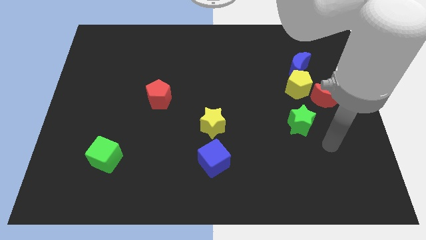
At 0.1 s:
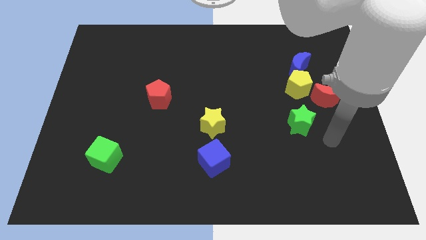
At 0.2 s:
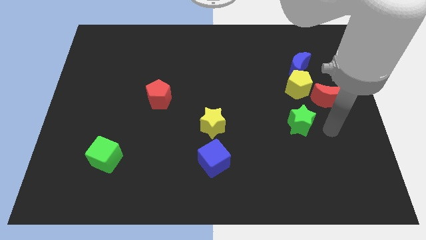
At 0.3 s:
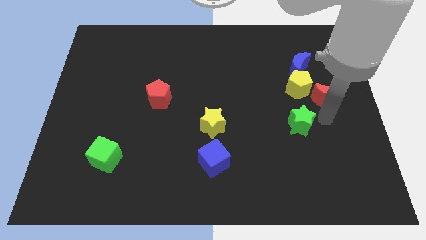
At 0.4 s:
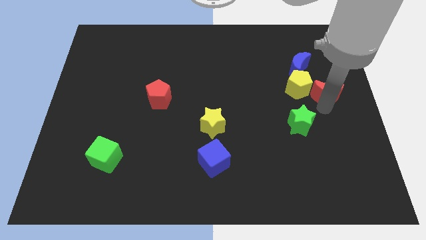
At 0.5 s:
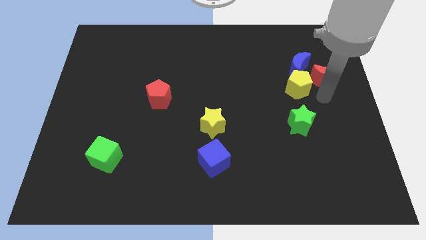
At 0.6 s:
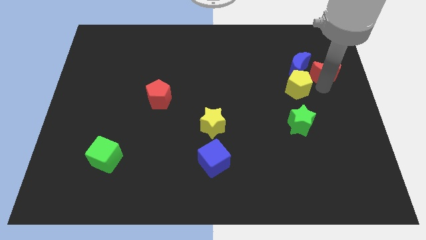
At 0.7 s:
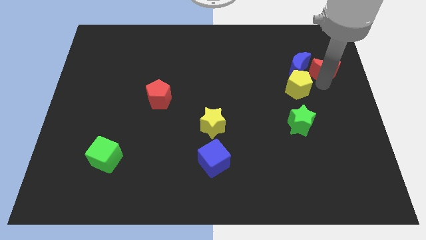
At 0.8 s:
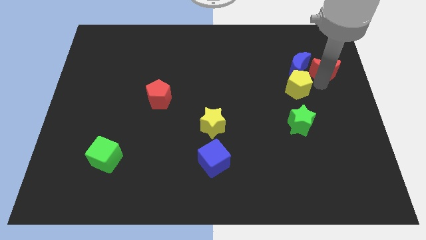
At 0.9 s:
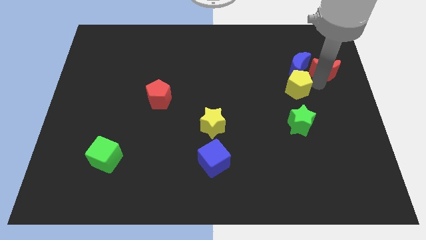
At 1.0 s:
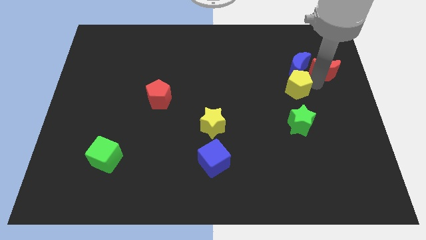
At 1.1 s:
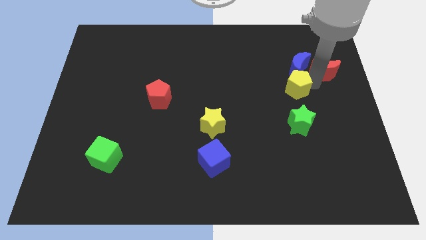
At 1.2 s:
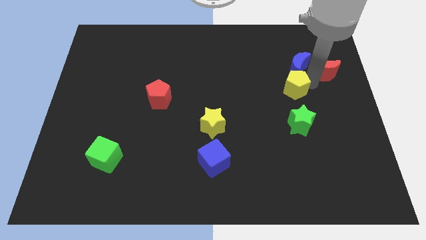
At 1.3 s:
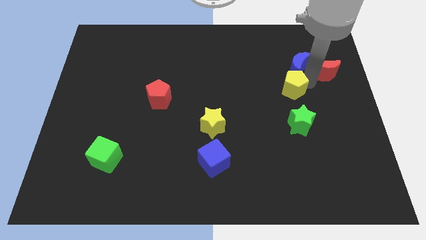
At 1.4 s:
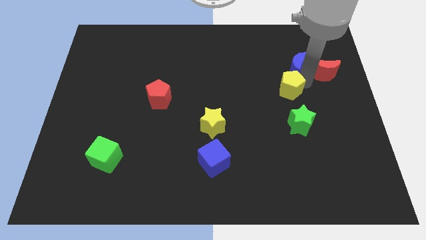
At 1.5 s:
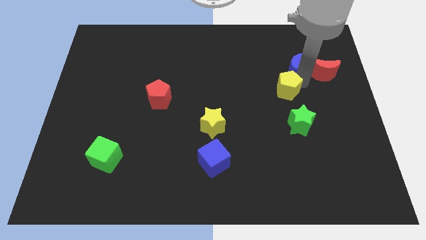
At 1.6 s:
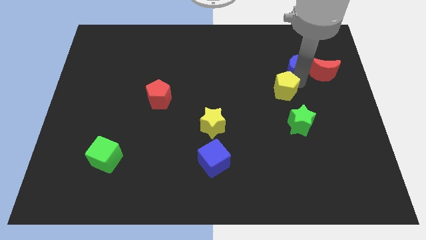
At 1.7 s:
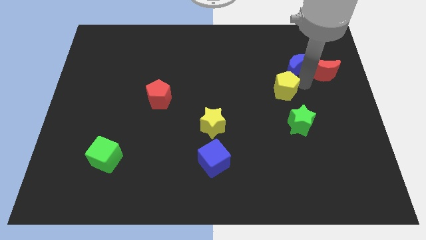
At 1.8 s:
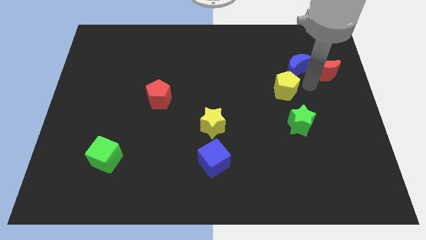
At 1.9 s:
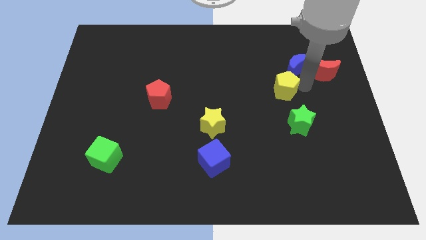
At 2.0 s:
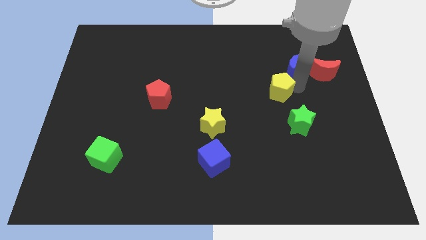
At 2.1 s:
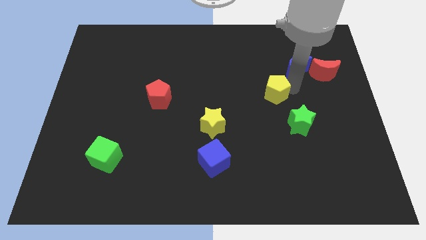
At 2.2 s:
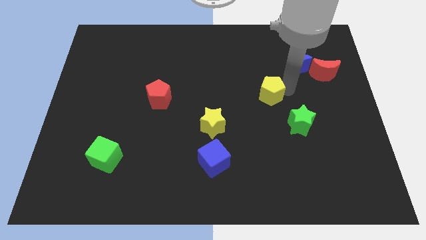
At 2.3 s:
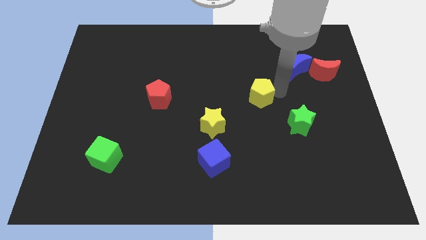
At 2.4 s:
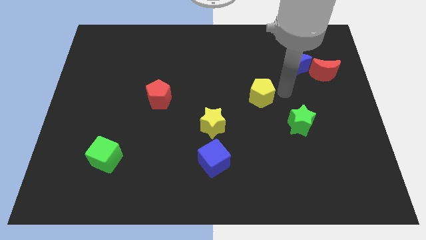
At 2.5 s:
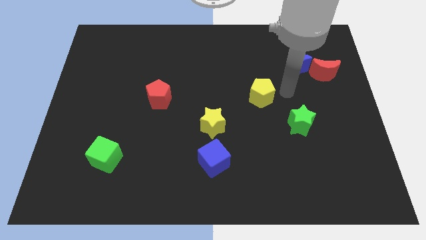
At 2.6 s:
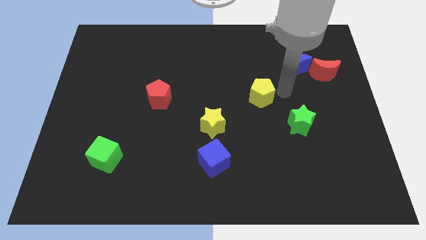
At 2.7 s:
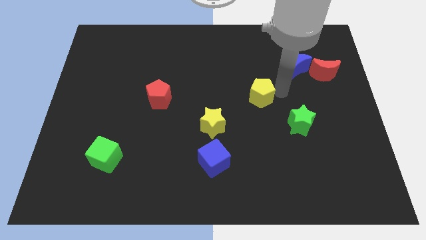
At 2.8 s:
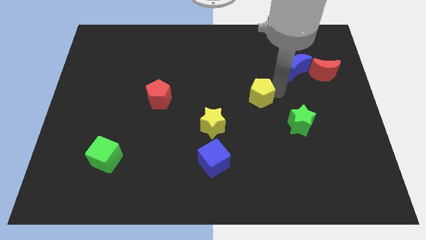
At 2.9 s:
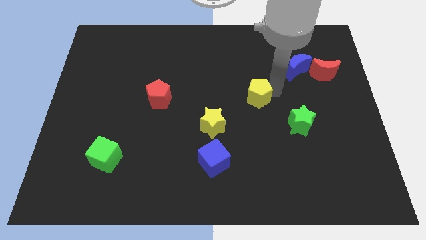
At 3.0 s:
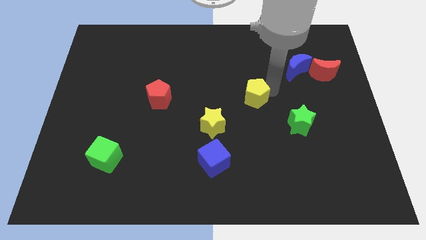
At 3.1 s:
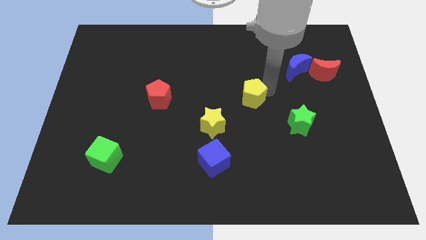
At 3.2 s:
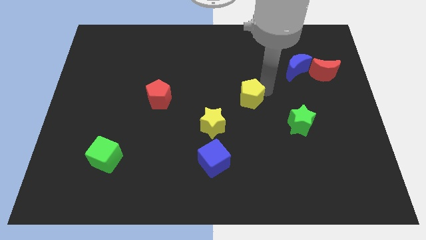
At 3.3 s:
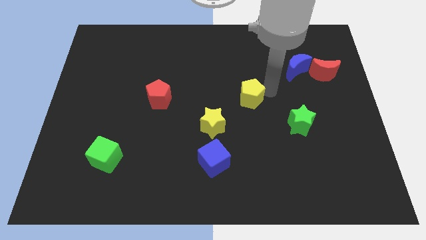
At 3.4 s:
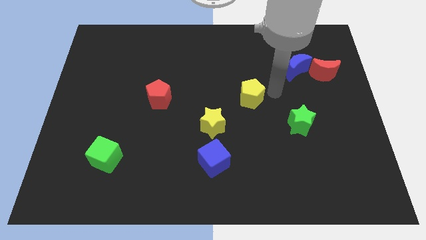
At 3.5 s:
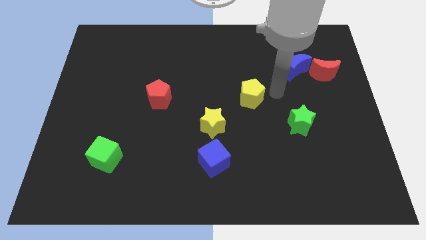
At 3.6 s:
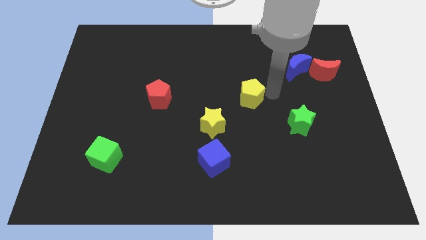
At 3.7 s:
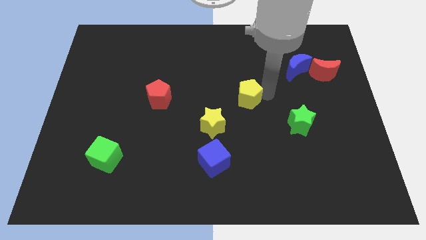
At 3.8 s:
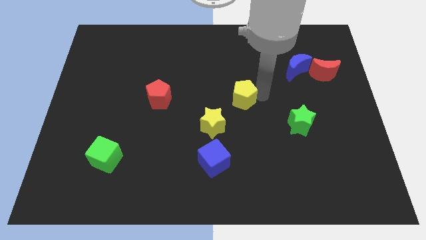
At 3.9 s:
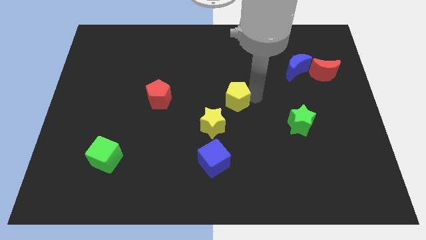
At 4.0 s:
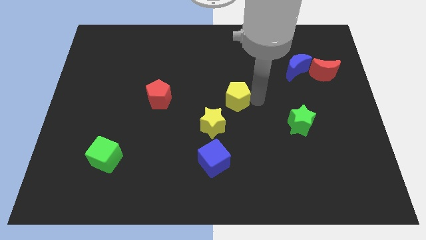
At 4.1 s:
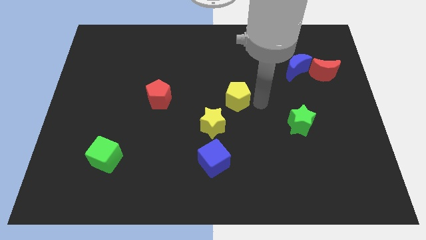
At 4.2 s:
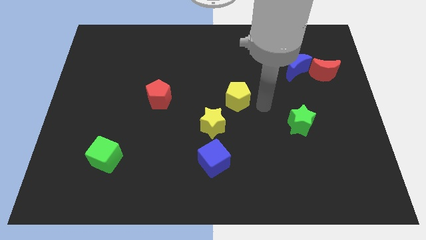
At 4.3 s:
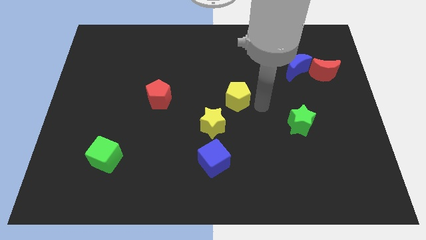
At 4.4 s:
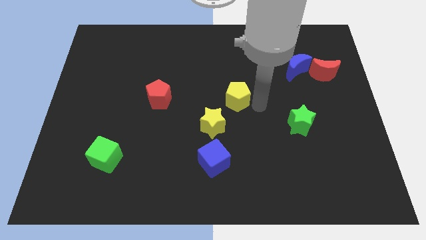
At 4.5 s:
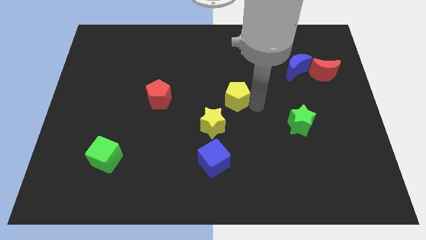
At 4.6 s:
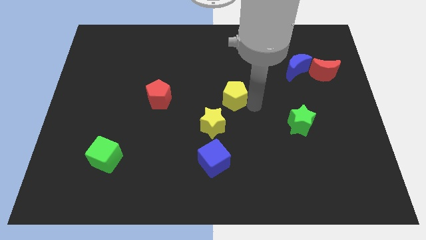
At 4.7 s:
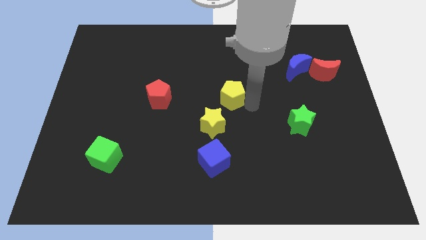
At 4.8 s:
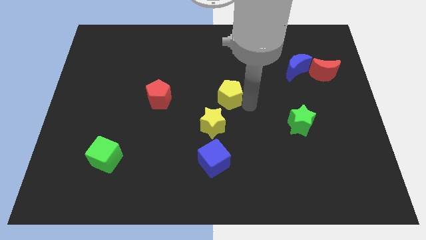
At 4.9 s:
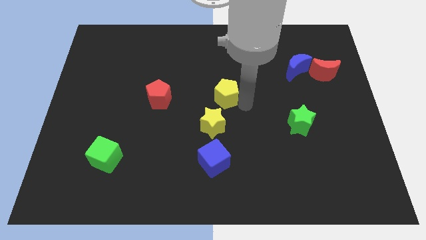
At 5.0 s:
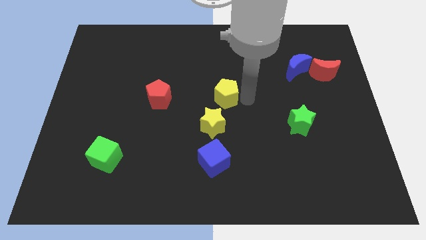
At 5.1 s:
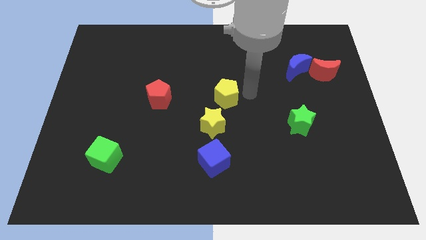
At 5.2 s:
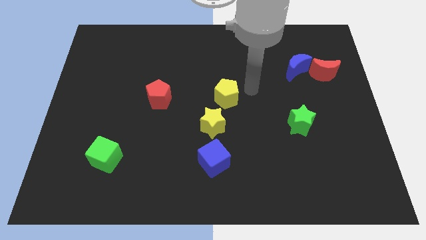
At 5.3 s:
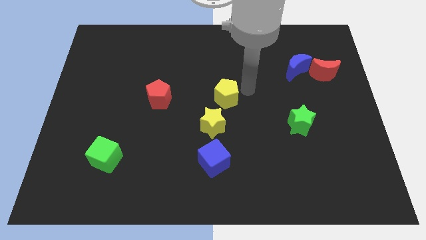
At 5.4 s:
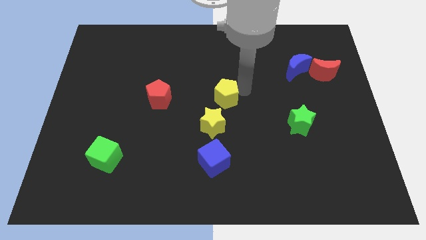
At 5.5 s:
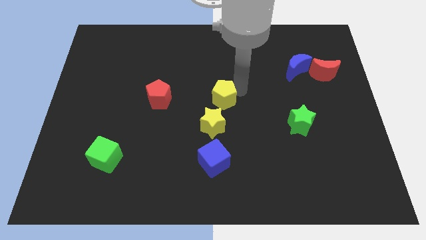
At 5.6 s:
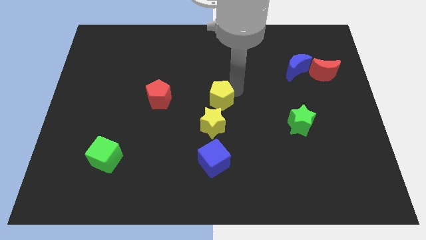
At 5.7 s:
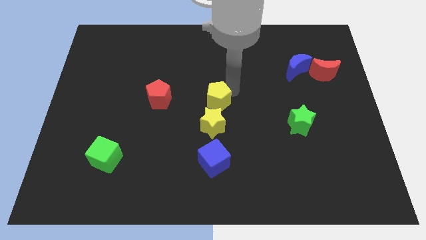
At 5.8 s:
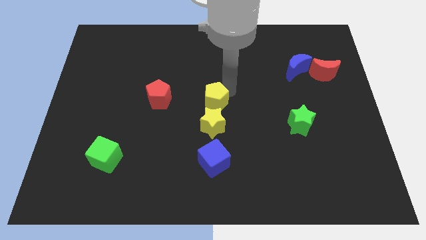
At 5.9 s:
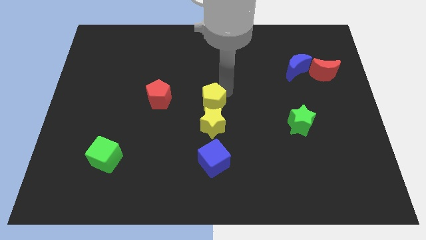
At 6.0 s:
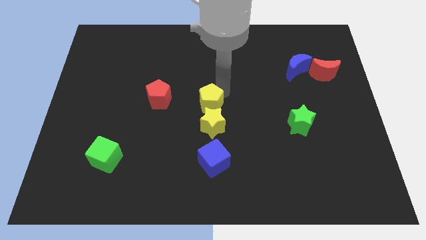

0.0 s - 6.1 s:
slide the yellow pentagon to the top left side of the yellow star

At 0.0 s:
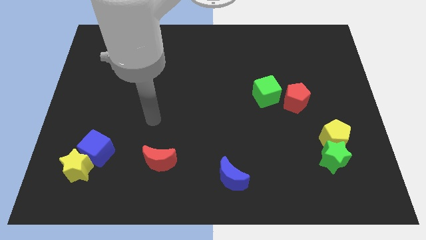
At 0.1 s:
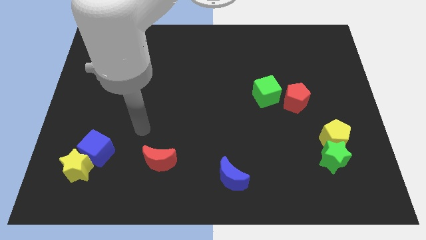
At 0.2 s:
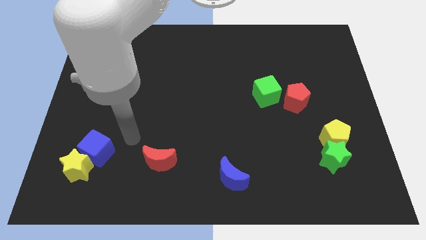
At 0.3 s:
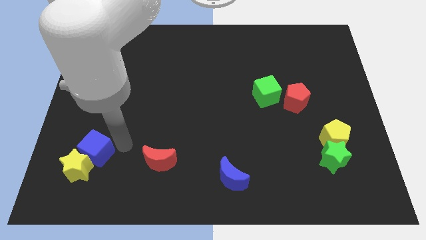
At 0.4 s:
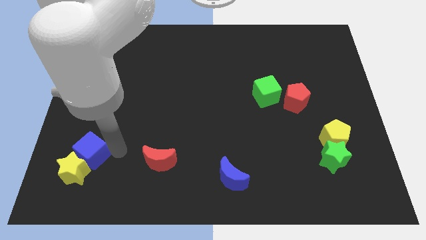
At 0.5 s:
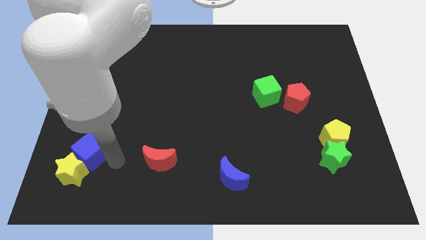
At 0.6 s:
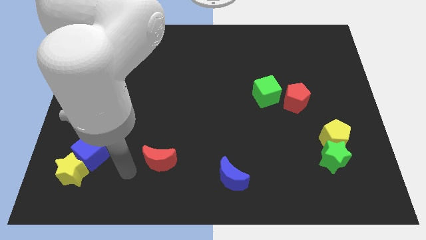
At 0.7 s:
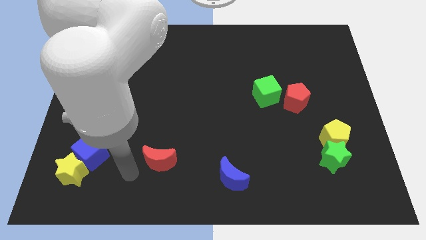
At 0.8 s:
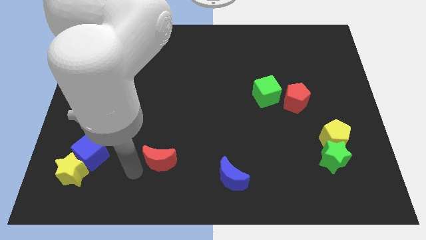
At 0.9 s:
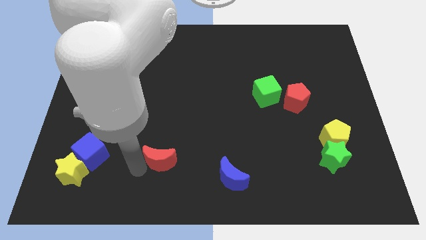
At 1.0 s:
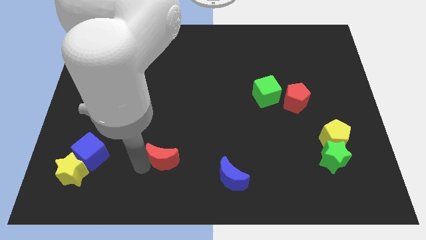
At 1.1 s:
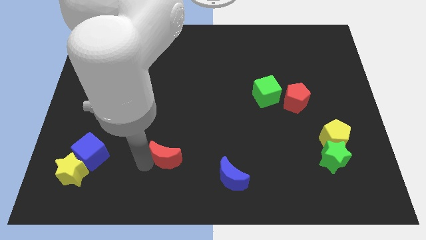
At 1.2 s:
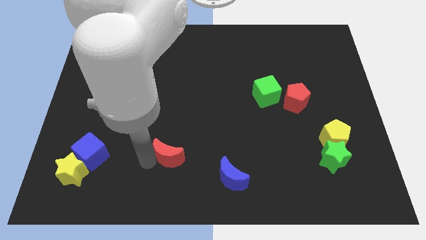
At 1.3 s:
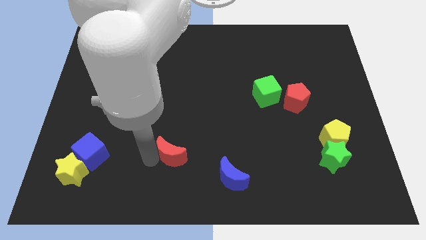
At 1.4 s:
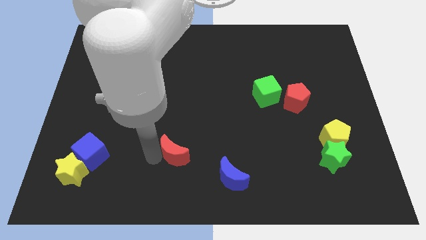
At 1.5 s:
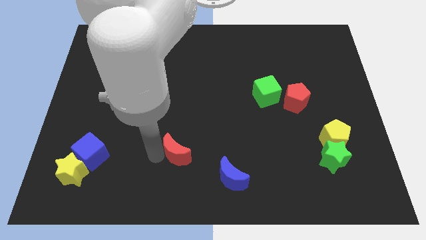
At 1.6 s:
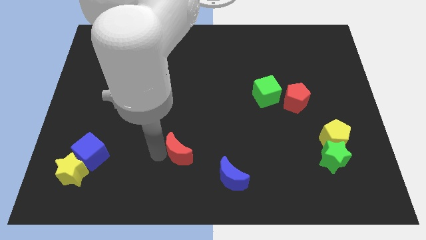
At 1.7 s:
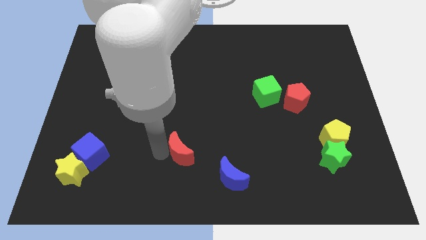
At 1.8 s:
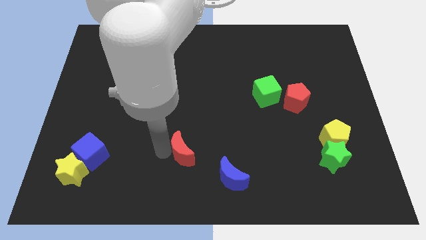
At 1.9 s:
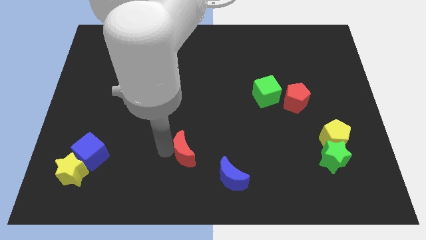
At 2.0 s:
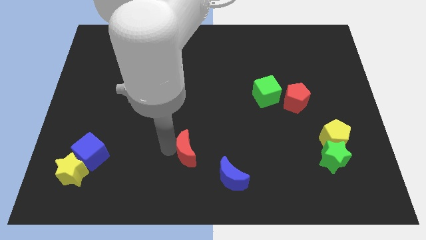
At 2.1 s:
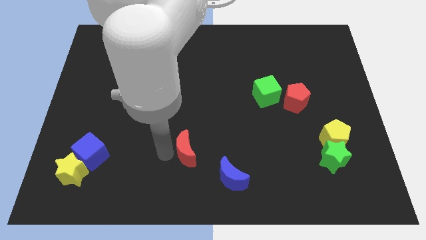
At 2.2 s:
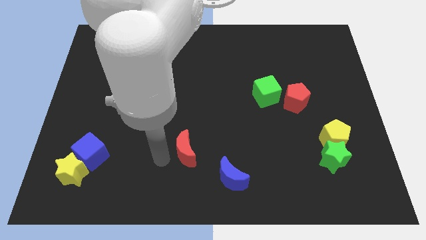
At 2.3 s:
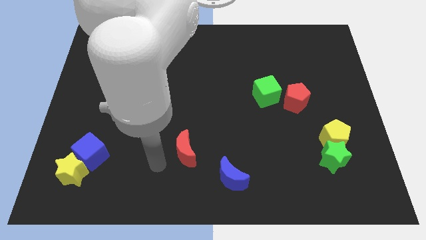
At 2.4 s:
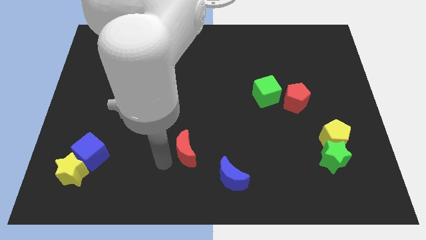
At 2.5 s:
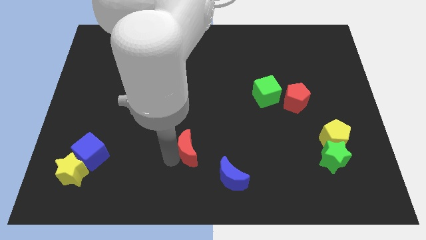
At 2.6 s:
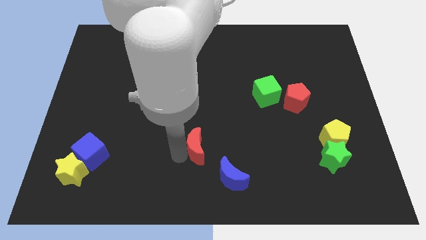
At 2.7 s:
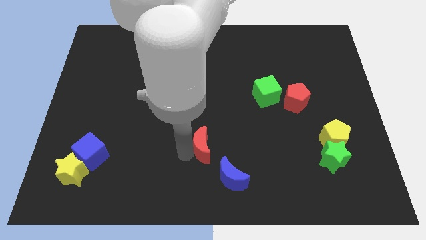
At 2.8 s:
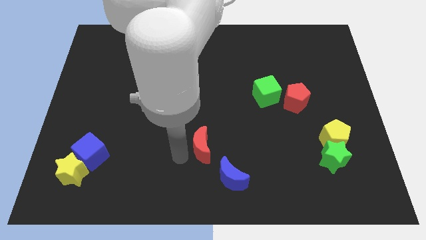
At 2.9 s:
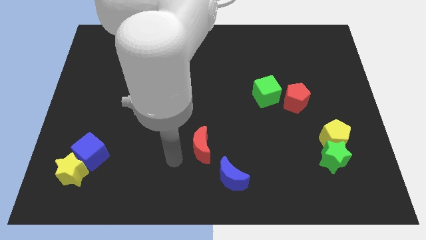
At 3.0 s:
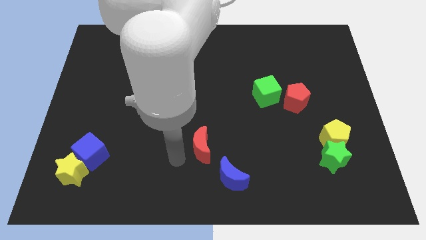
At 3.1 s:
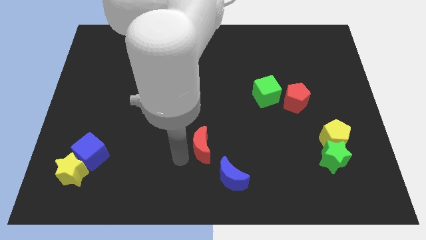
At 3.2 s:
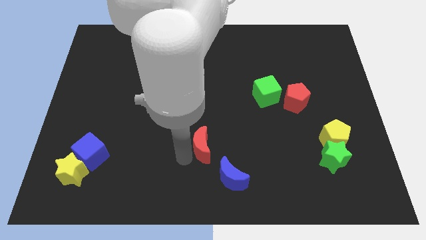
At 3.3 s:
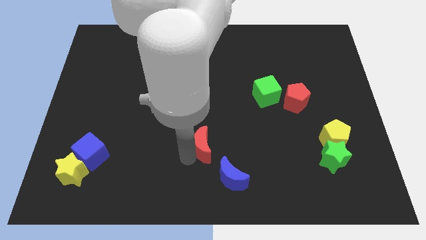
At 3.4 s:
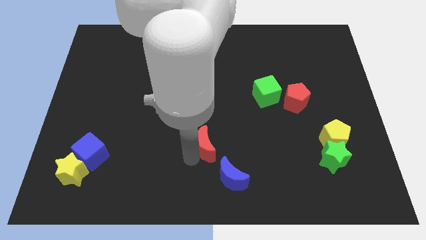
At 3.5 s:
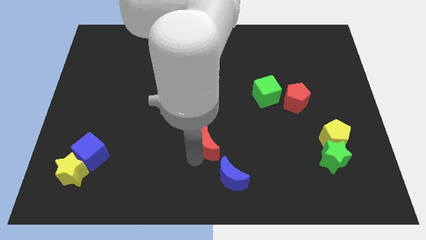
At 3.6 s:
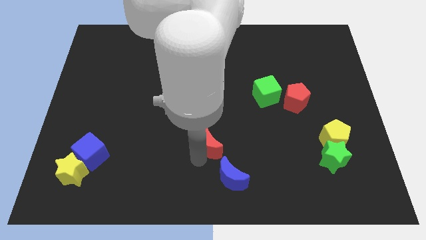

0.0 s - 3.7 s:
slide the red moon to the top side of the blue moon
